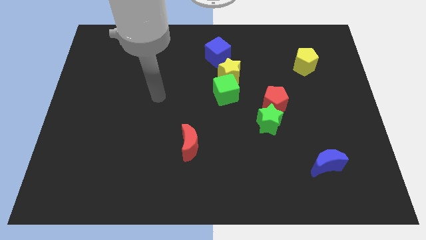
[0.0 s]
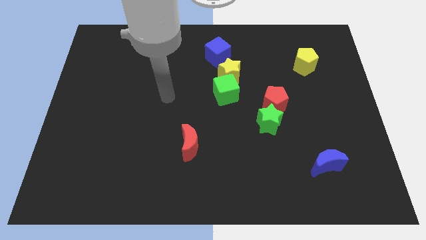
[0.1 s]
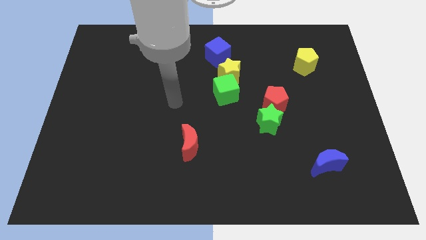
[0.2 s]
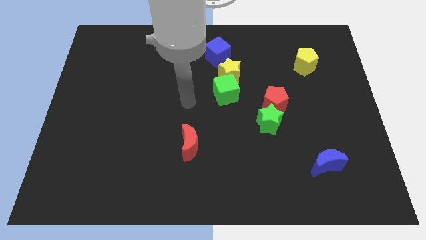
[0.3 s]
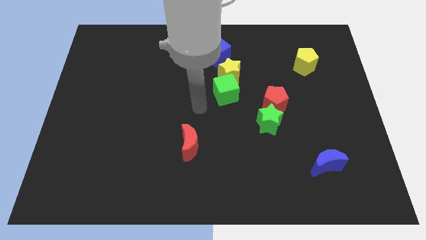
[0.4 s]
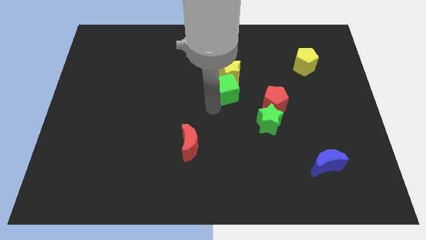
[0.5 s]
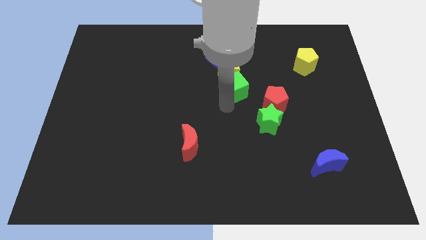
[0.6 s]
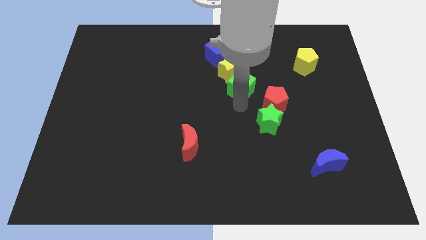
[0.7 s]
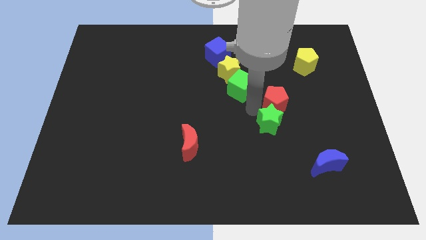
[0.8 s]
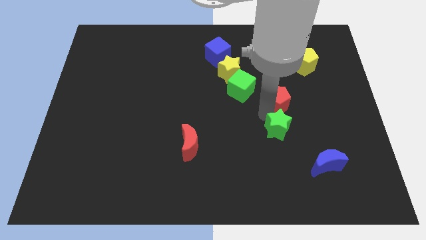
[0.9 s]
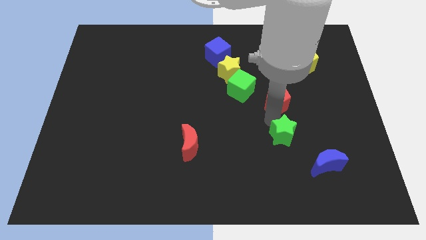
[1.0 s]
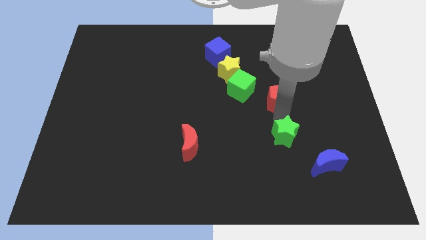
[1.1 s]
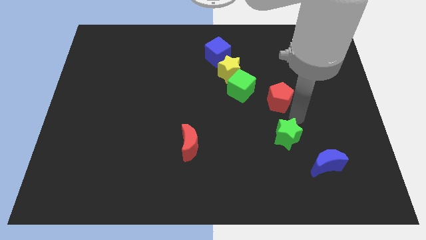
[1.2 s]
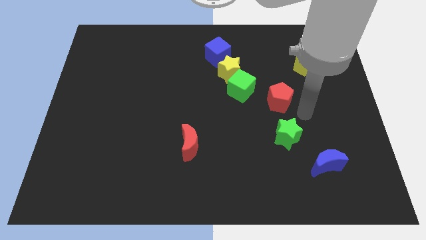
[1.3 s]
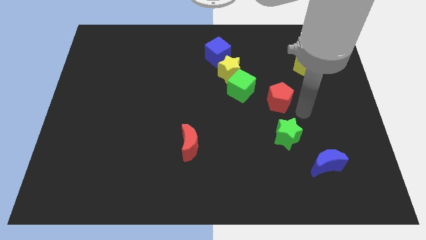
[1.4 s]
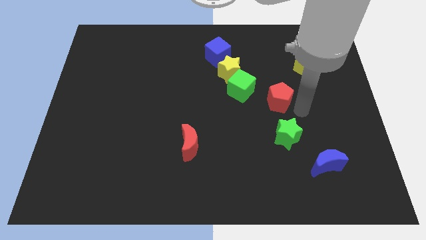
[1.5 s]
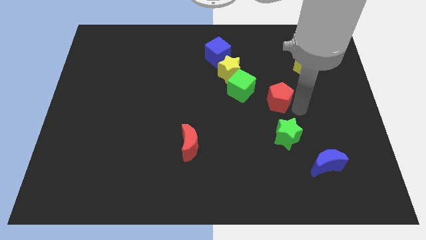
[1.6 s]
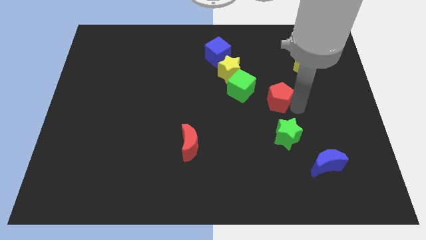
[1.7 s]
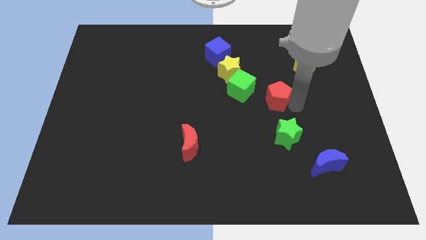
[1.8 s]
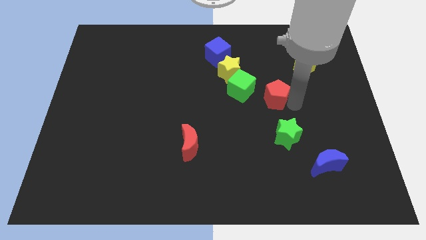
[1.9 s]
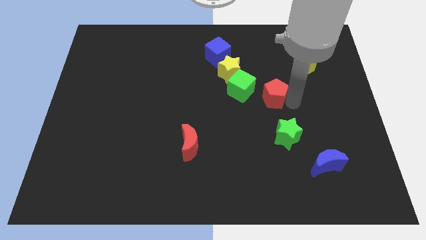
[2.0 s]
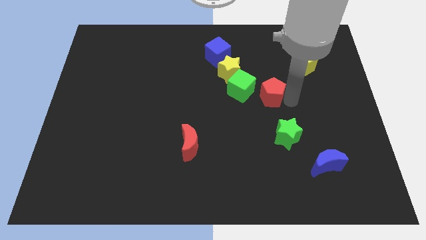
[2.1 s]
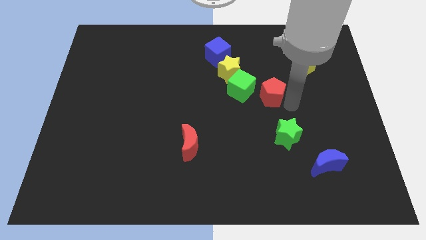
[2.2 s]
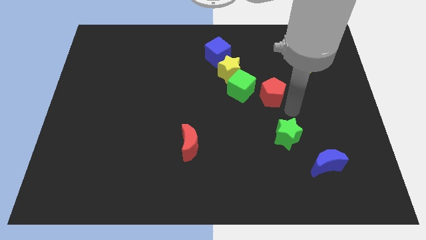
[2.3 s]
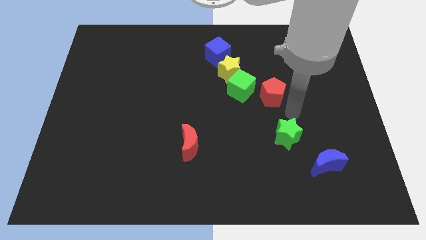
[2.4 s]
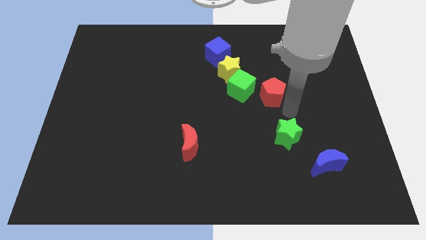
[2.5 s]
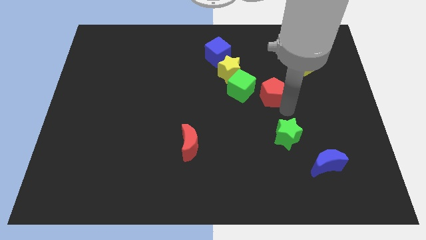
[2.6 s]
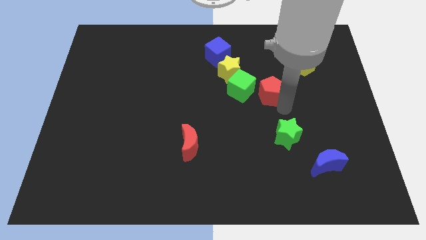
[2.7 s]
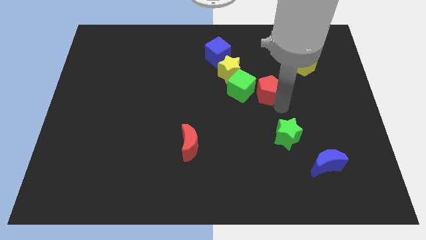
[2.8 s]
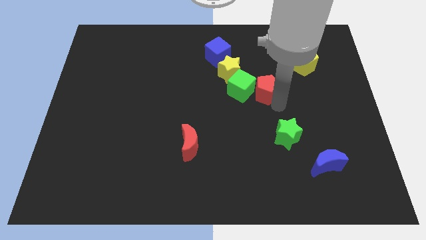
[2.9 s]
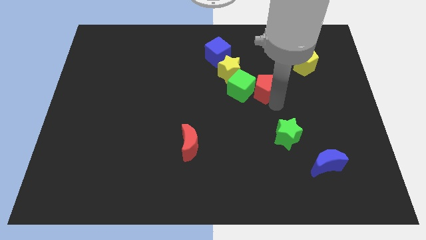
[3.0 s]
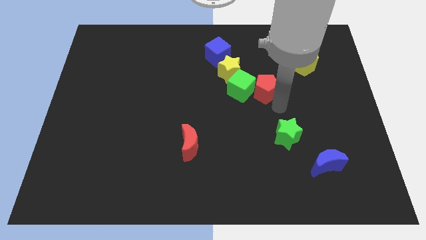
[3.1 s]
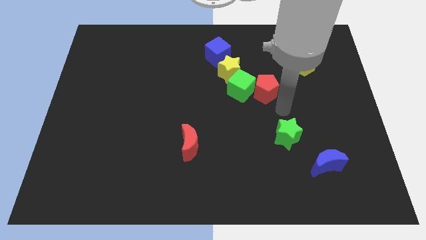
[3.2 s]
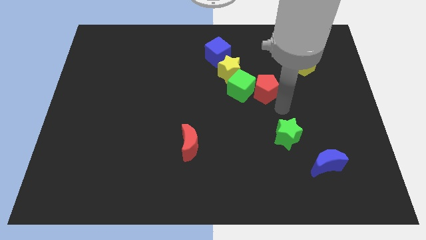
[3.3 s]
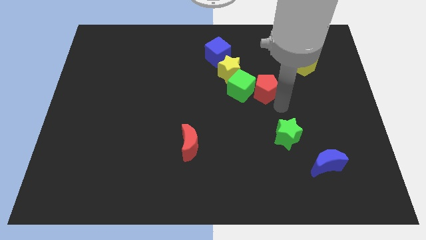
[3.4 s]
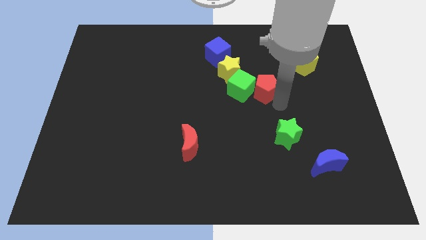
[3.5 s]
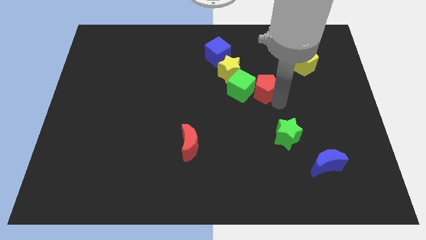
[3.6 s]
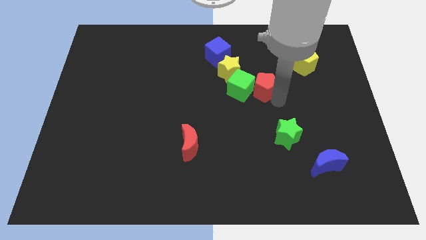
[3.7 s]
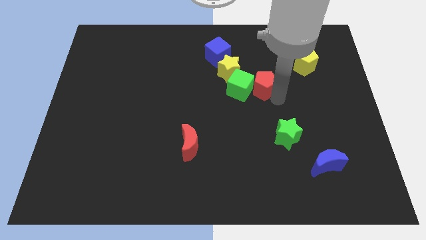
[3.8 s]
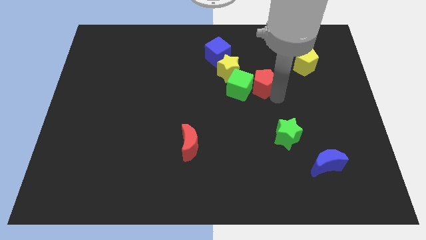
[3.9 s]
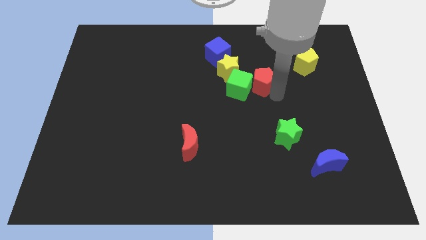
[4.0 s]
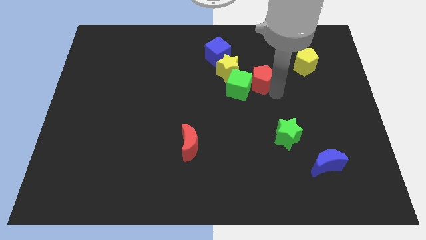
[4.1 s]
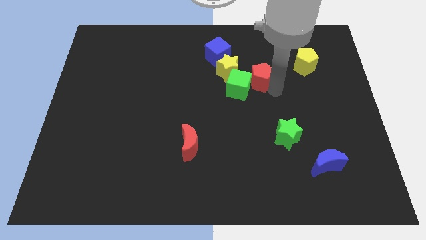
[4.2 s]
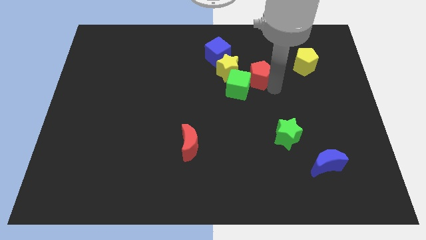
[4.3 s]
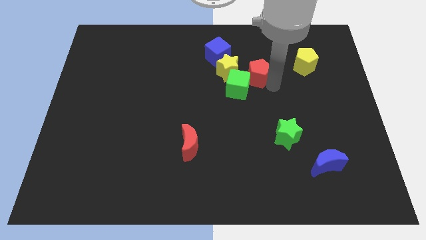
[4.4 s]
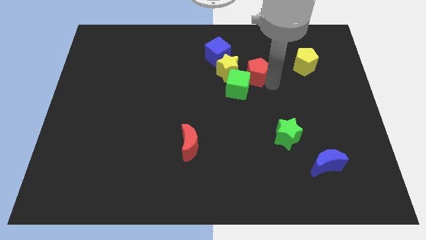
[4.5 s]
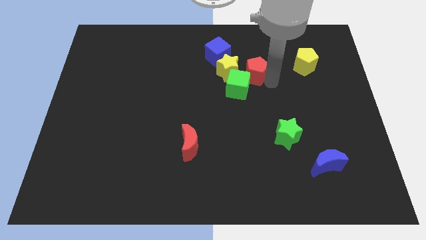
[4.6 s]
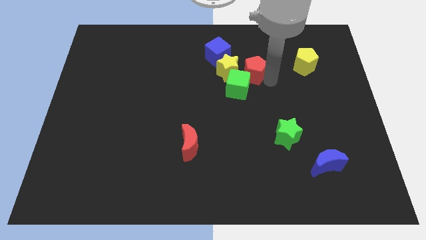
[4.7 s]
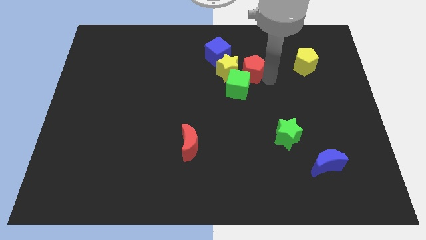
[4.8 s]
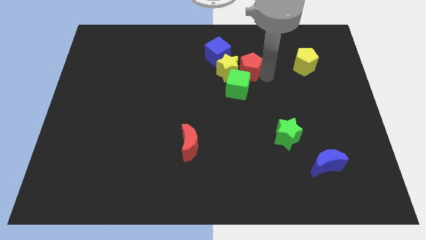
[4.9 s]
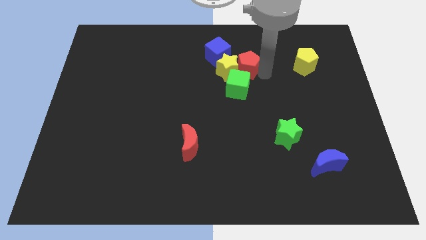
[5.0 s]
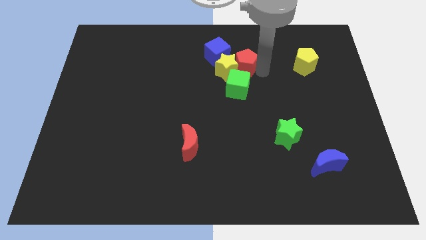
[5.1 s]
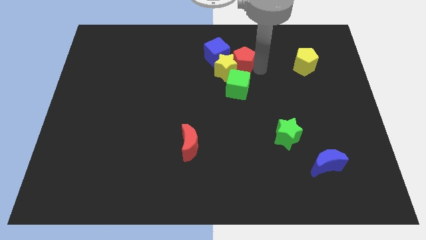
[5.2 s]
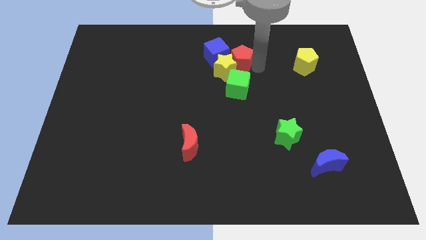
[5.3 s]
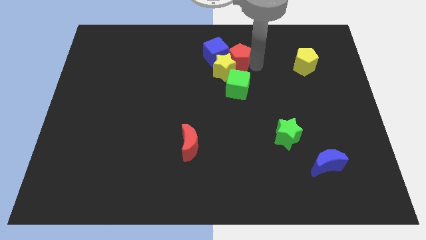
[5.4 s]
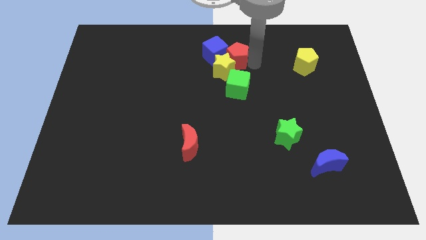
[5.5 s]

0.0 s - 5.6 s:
move the red pentagon next to the blue cube

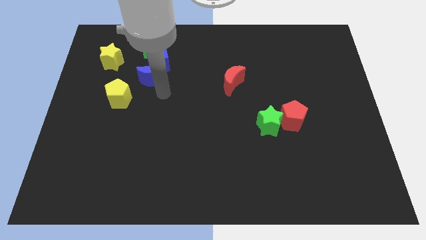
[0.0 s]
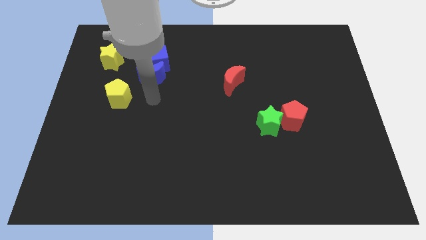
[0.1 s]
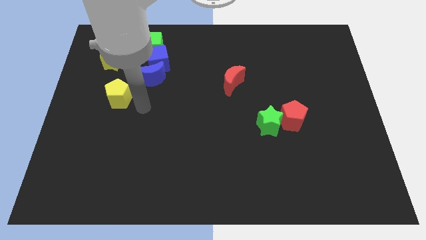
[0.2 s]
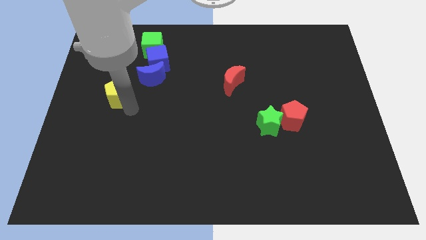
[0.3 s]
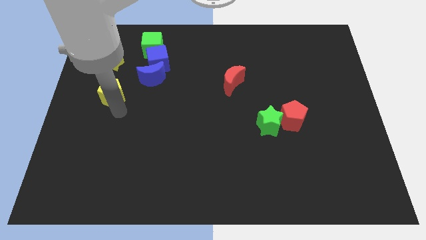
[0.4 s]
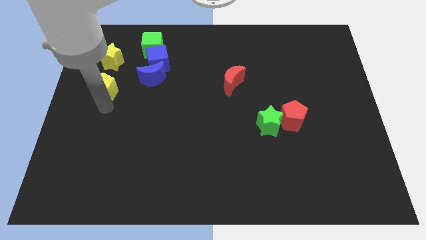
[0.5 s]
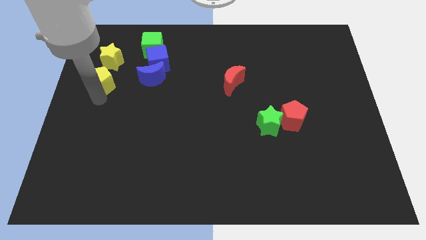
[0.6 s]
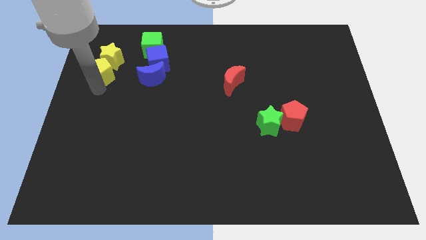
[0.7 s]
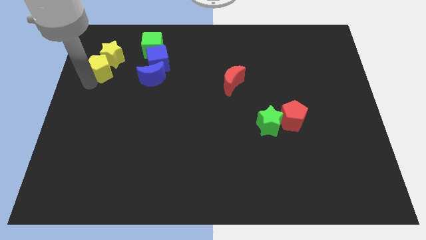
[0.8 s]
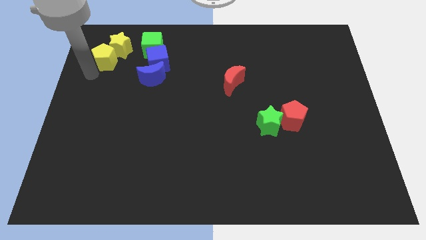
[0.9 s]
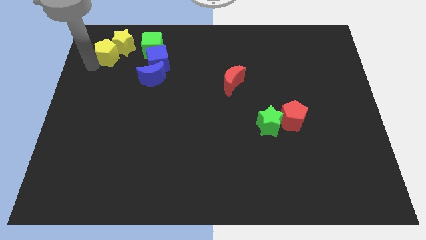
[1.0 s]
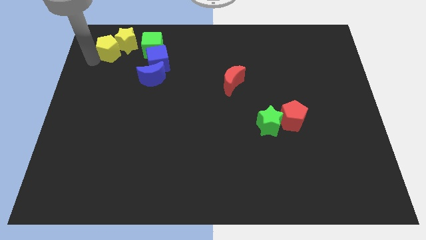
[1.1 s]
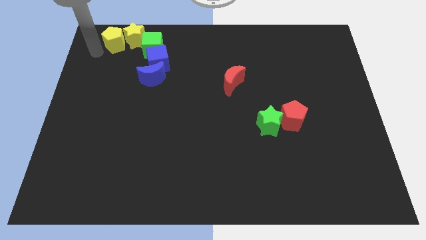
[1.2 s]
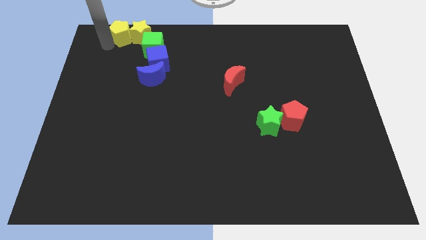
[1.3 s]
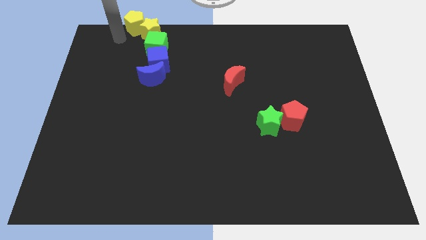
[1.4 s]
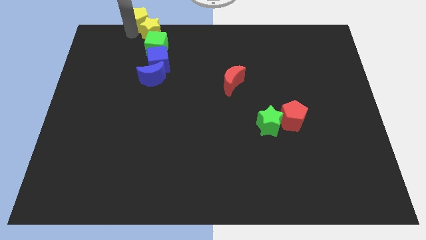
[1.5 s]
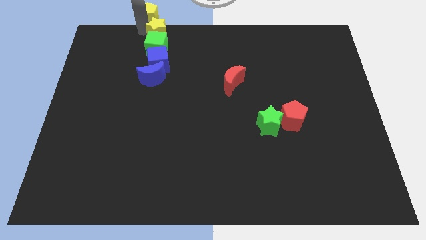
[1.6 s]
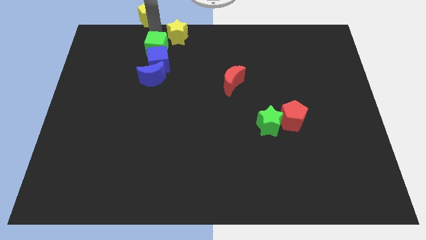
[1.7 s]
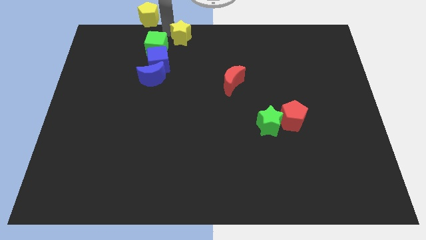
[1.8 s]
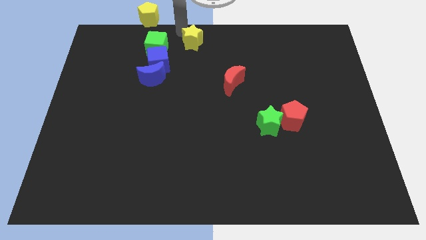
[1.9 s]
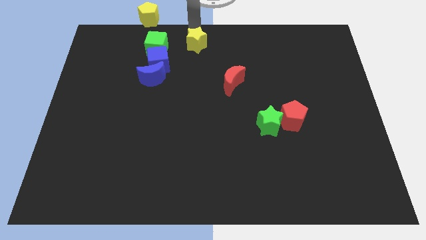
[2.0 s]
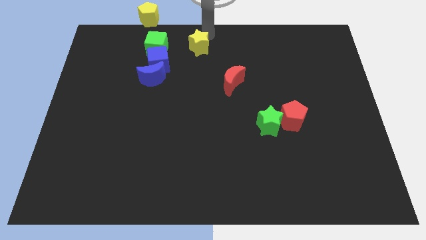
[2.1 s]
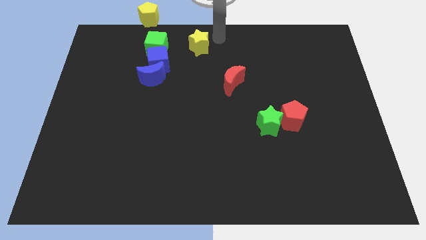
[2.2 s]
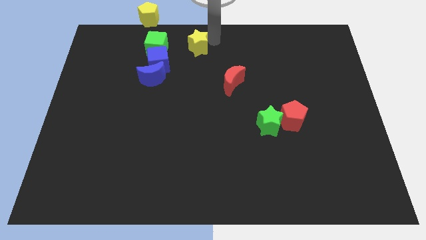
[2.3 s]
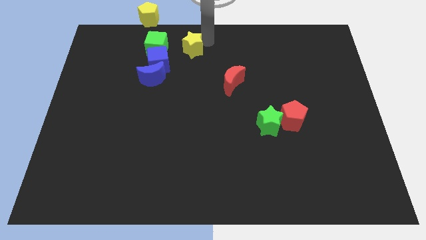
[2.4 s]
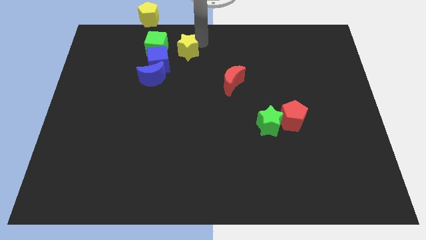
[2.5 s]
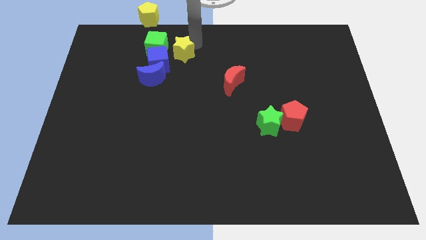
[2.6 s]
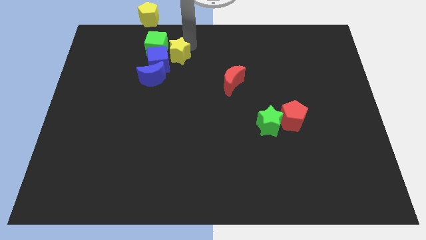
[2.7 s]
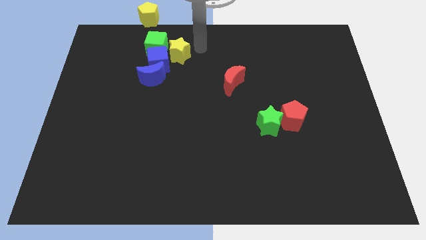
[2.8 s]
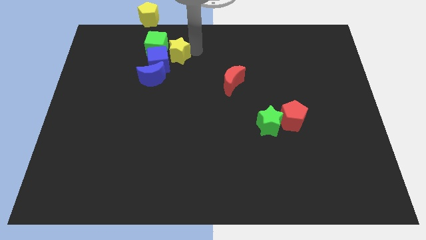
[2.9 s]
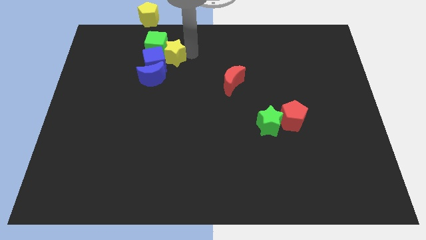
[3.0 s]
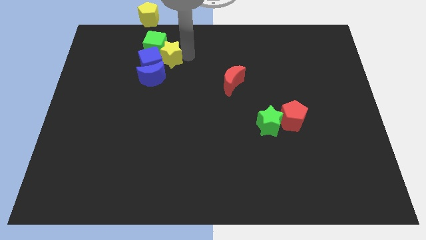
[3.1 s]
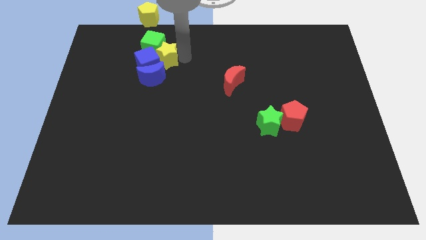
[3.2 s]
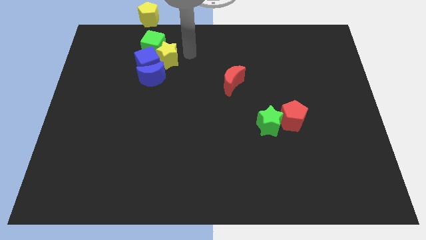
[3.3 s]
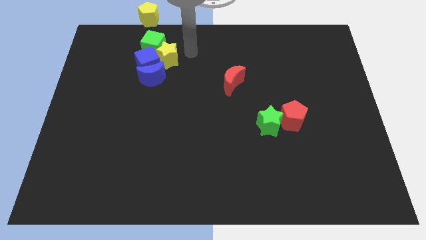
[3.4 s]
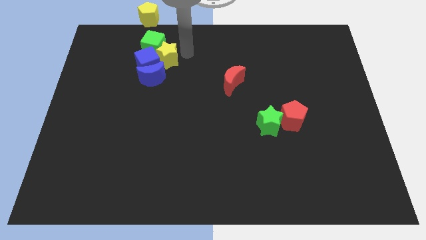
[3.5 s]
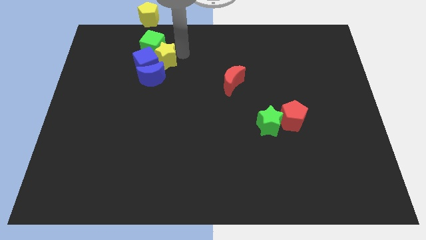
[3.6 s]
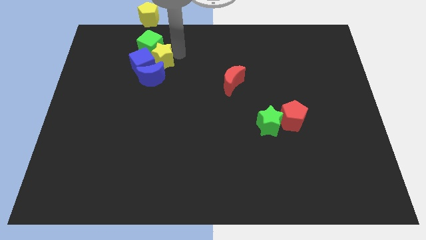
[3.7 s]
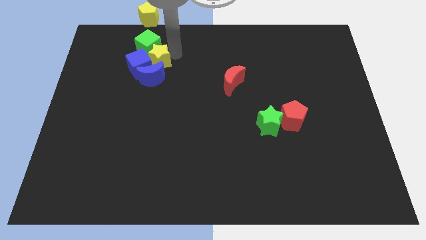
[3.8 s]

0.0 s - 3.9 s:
slide the yellow star to the blue moon
